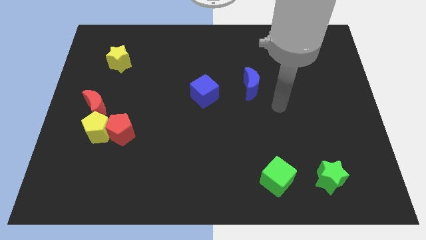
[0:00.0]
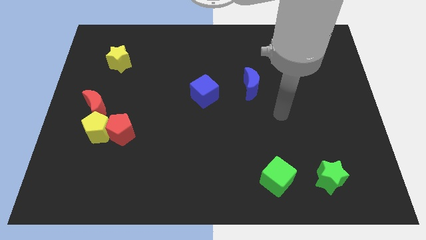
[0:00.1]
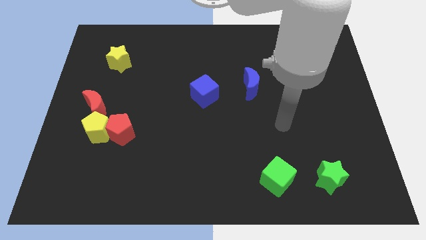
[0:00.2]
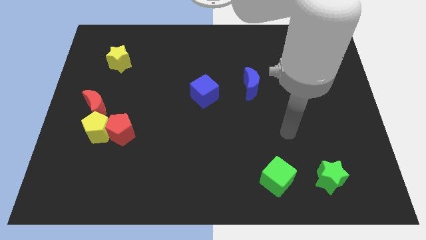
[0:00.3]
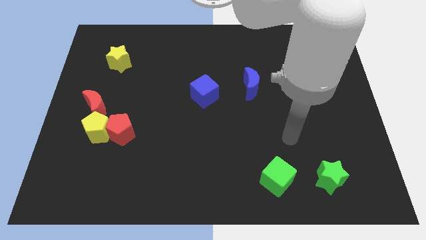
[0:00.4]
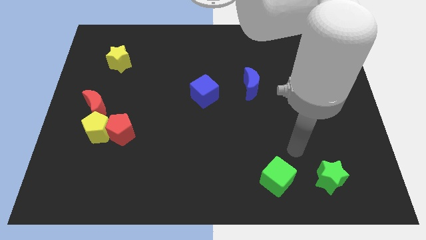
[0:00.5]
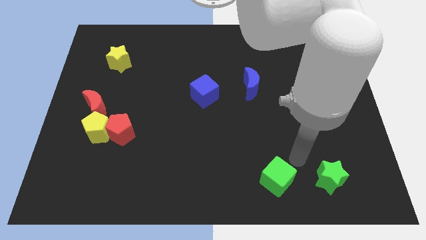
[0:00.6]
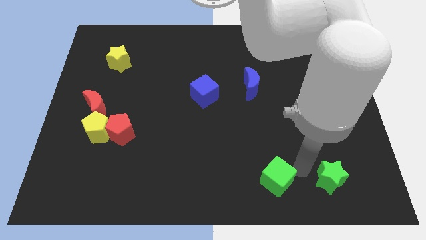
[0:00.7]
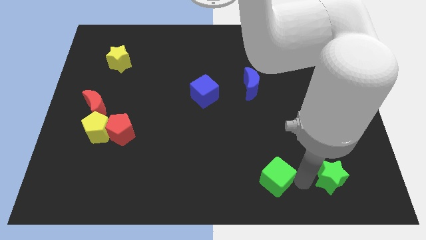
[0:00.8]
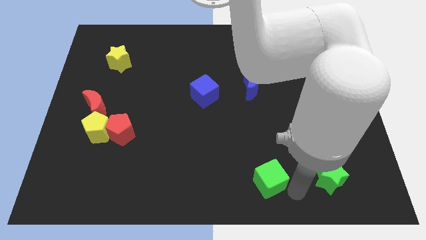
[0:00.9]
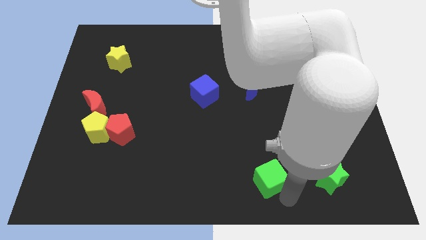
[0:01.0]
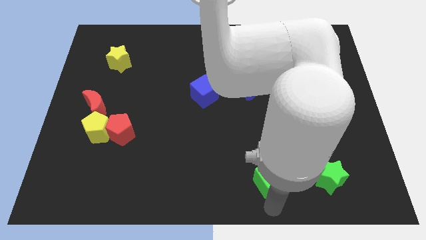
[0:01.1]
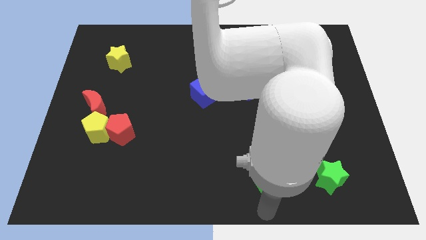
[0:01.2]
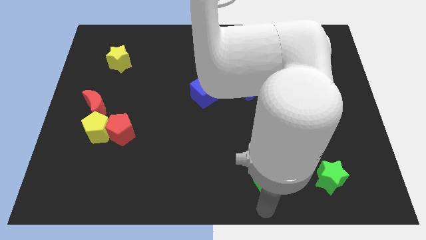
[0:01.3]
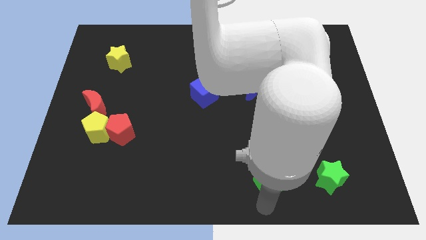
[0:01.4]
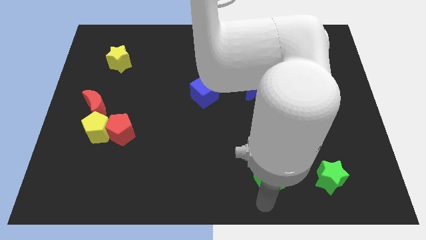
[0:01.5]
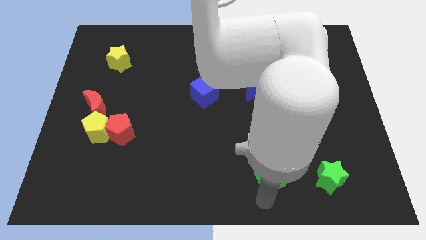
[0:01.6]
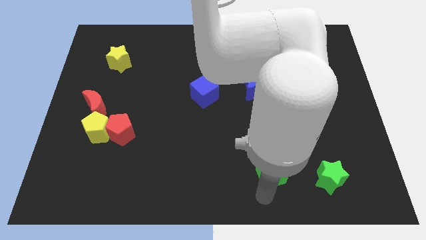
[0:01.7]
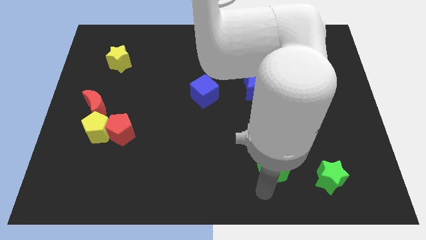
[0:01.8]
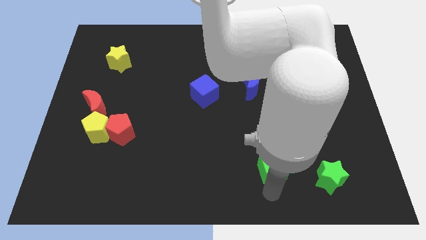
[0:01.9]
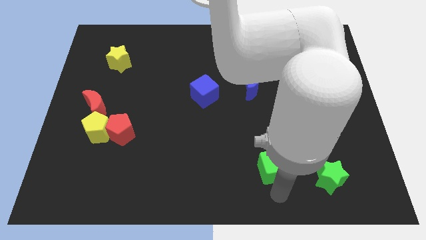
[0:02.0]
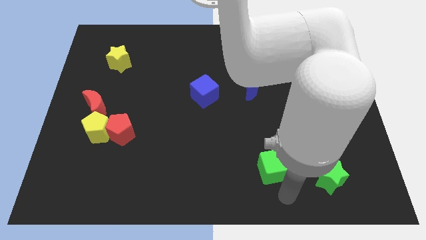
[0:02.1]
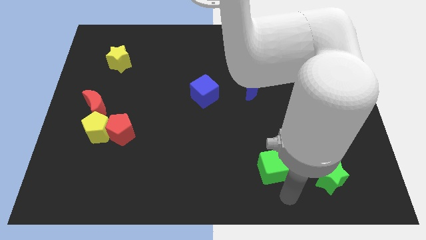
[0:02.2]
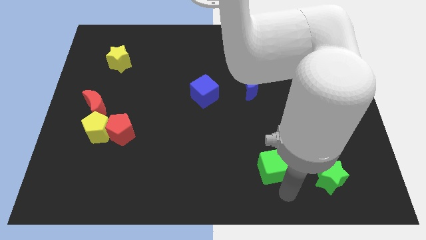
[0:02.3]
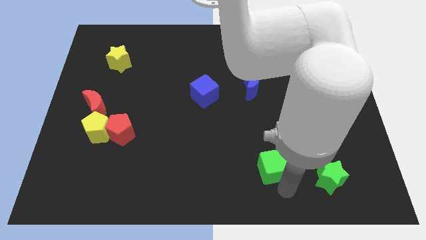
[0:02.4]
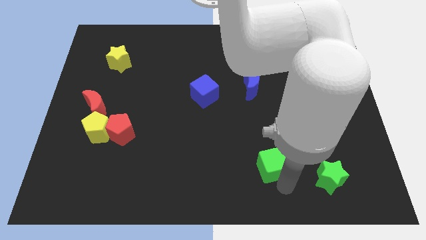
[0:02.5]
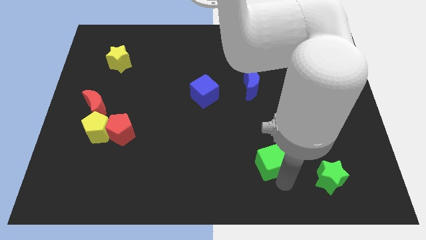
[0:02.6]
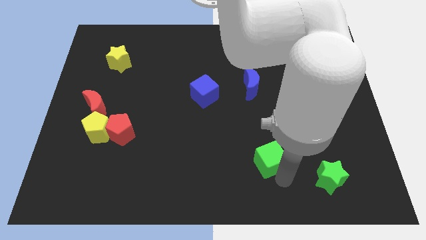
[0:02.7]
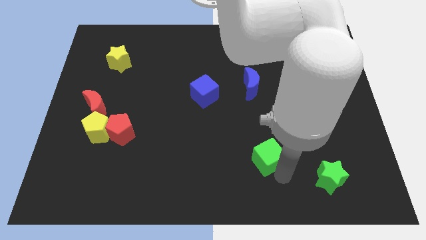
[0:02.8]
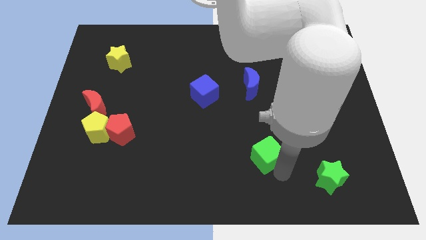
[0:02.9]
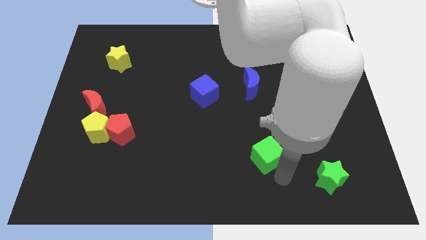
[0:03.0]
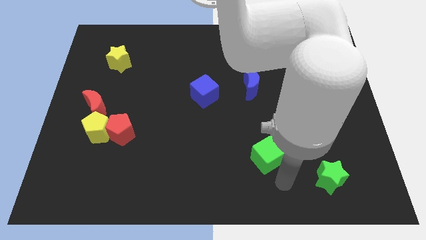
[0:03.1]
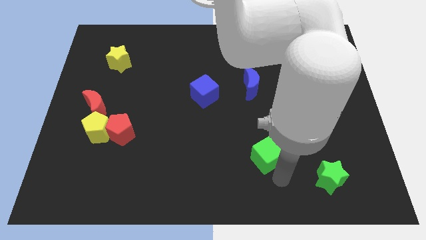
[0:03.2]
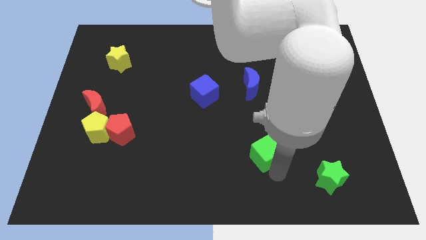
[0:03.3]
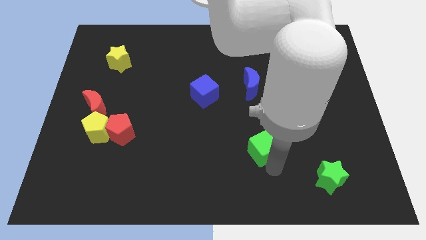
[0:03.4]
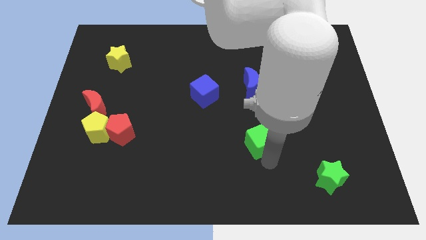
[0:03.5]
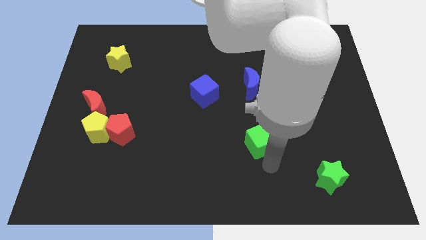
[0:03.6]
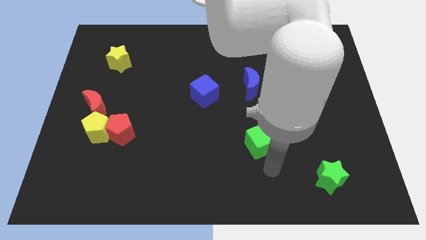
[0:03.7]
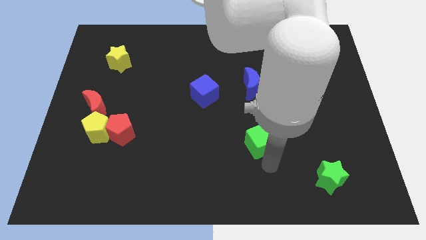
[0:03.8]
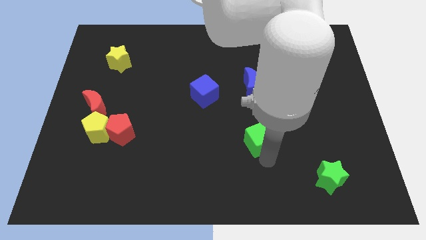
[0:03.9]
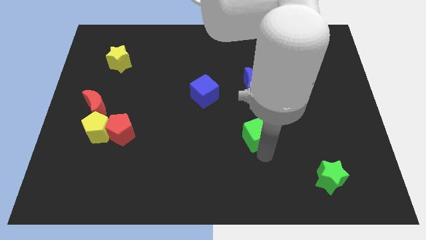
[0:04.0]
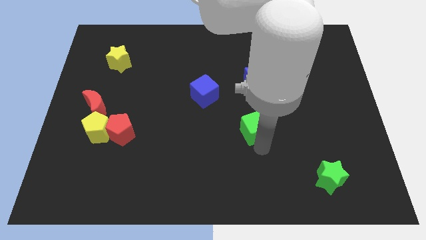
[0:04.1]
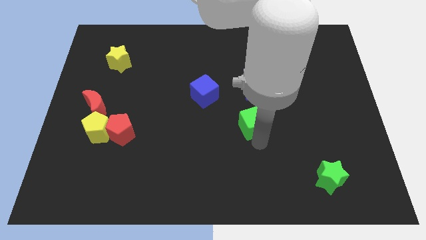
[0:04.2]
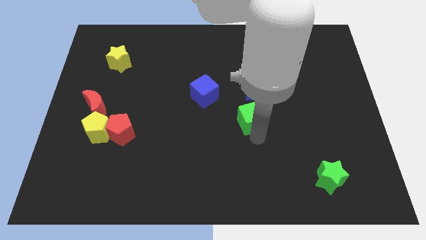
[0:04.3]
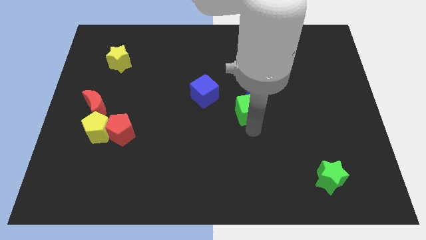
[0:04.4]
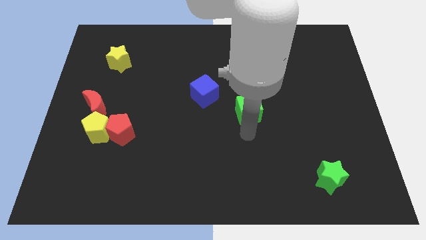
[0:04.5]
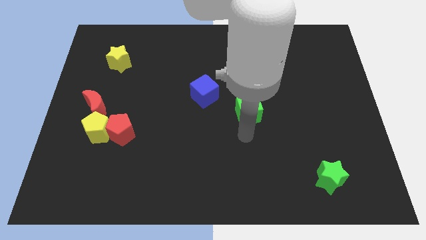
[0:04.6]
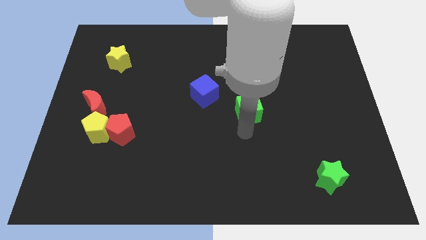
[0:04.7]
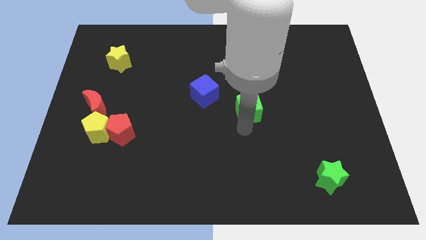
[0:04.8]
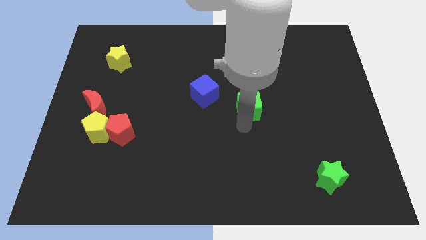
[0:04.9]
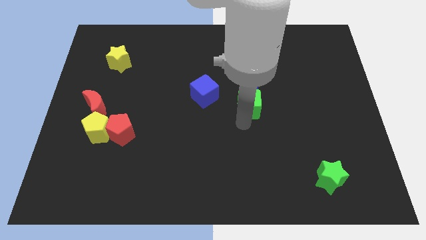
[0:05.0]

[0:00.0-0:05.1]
move the green cube next to the blue moon

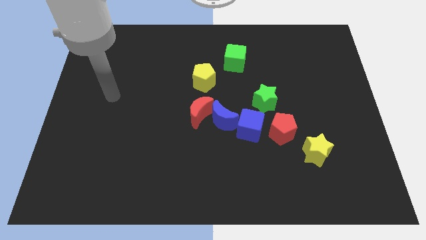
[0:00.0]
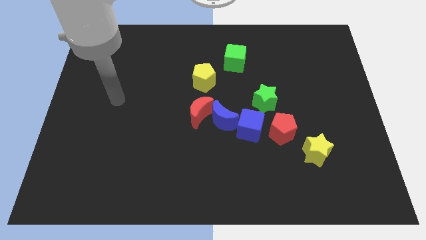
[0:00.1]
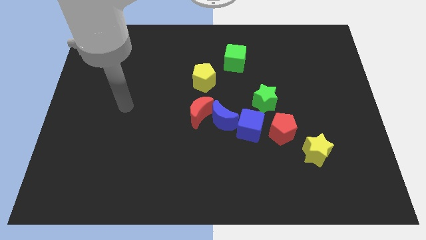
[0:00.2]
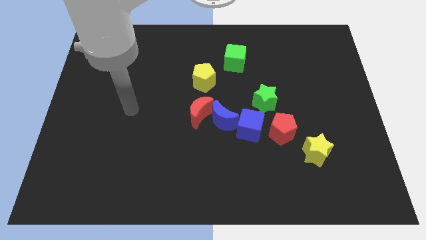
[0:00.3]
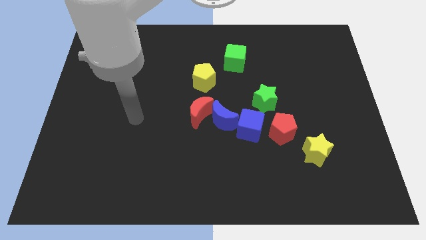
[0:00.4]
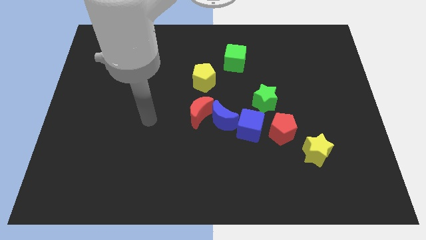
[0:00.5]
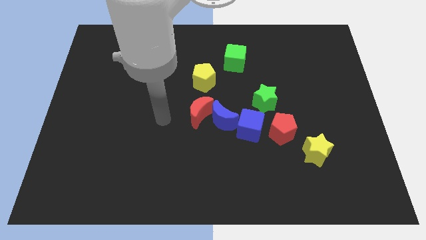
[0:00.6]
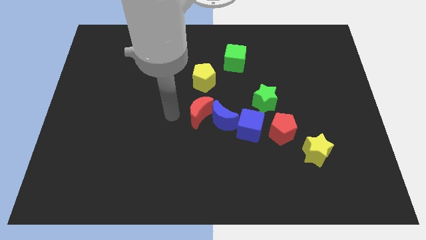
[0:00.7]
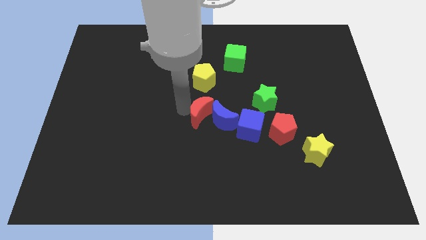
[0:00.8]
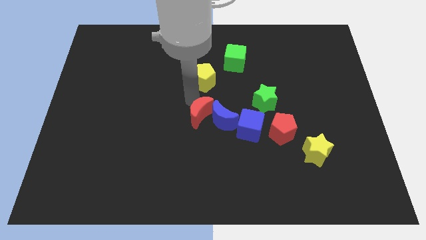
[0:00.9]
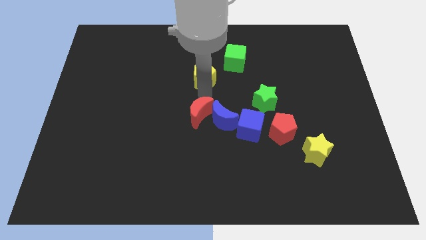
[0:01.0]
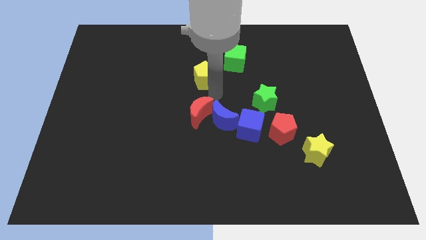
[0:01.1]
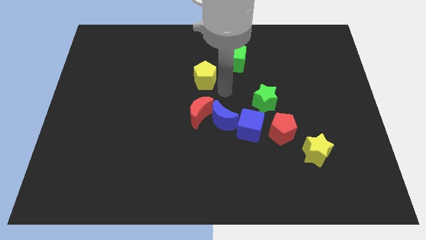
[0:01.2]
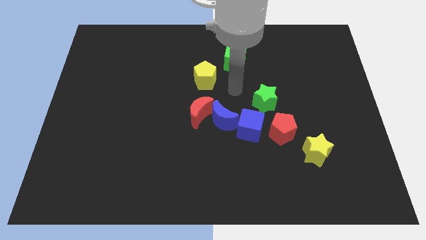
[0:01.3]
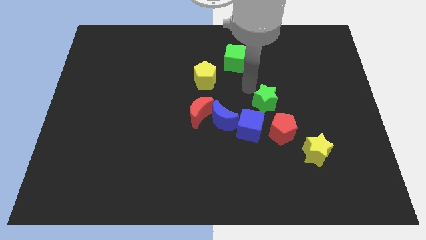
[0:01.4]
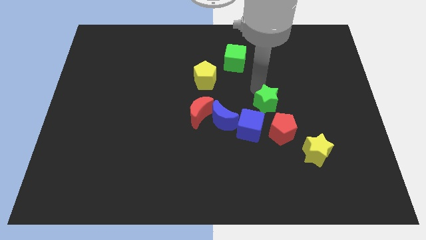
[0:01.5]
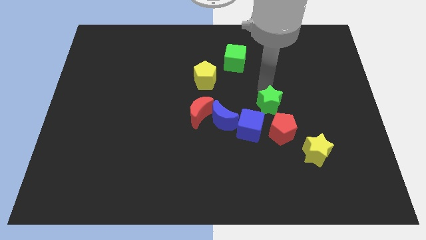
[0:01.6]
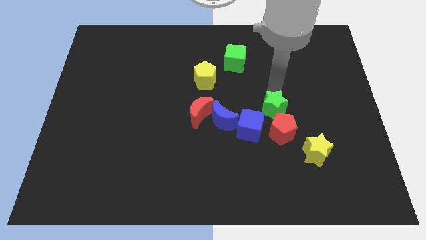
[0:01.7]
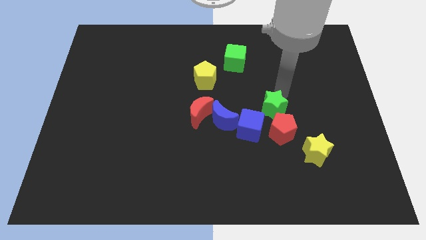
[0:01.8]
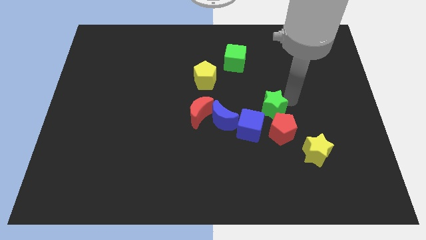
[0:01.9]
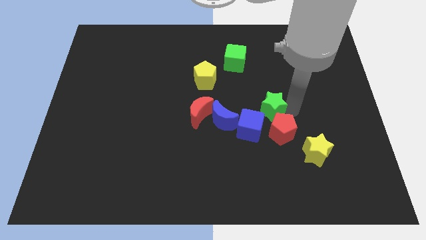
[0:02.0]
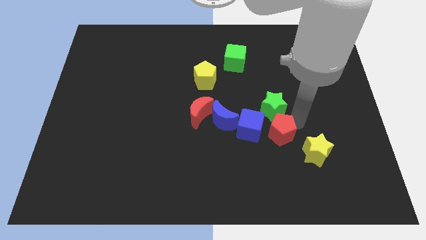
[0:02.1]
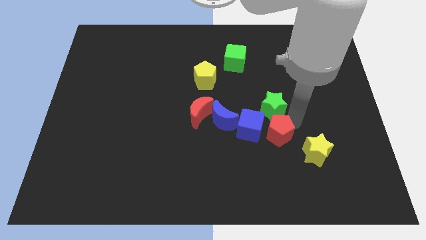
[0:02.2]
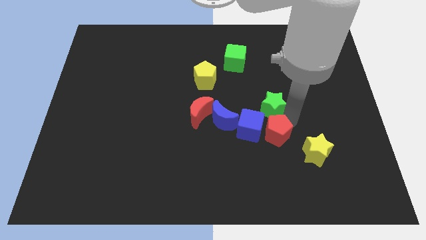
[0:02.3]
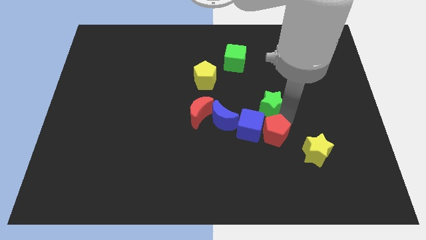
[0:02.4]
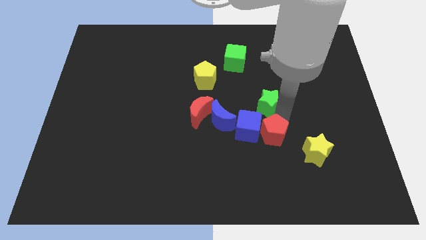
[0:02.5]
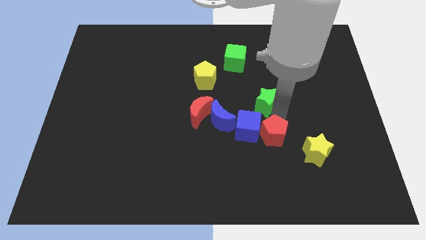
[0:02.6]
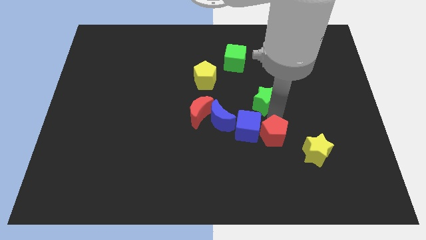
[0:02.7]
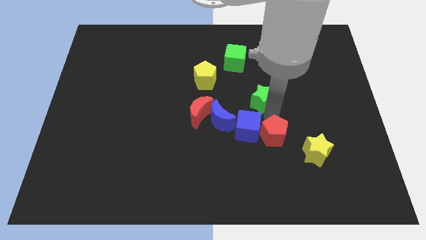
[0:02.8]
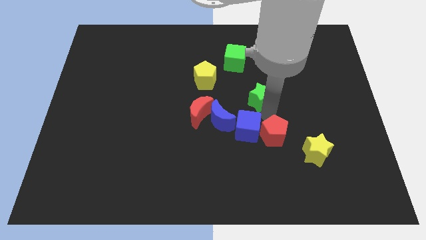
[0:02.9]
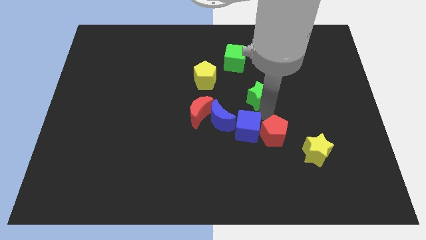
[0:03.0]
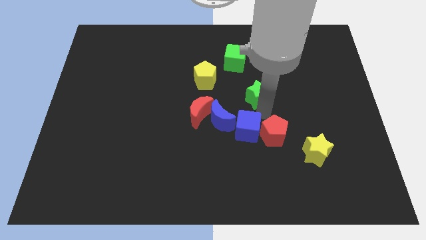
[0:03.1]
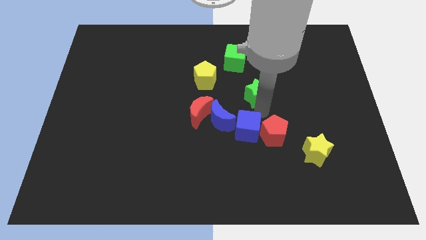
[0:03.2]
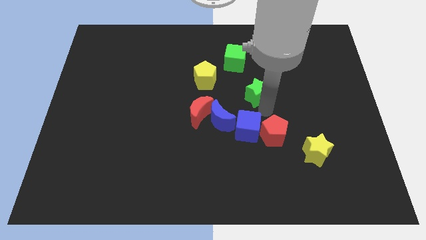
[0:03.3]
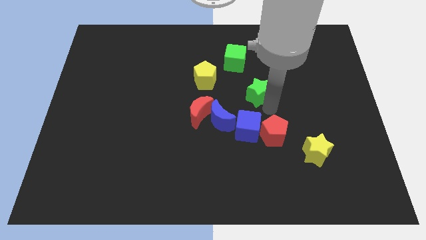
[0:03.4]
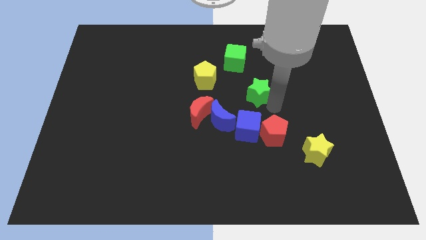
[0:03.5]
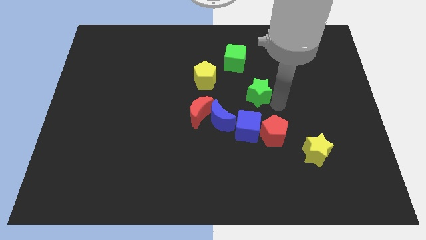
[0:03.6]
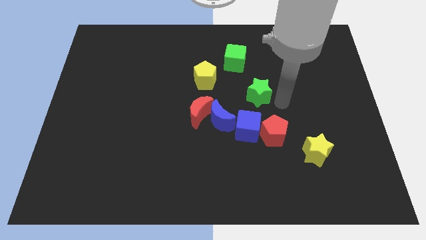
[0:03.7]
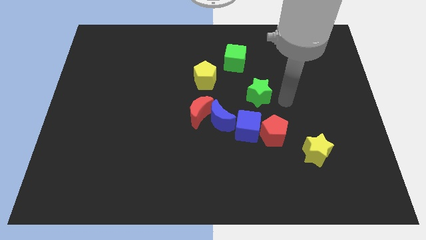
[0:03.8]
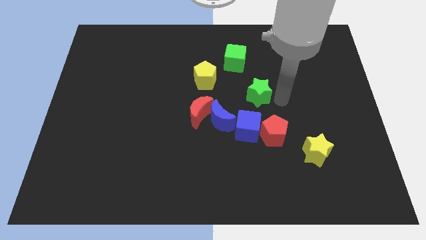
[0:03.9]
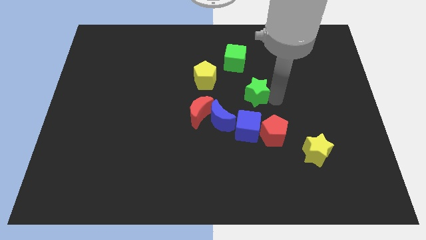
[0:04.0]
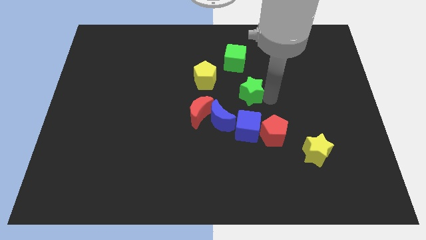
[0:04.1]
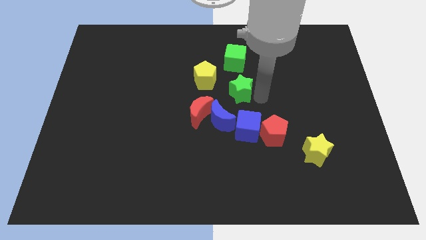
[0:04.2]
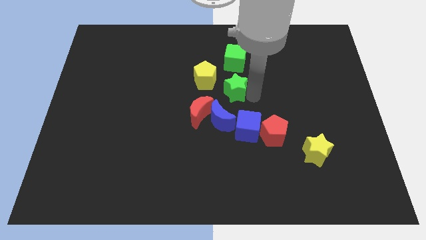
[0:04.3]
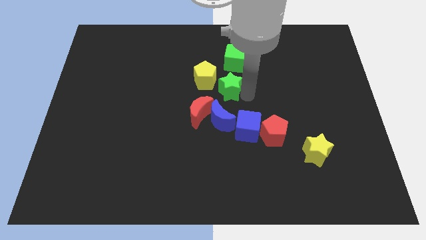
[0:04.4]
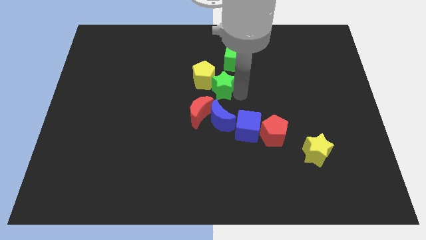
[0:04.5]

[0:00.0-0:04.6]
move the green star towards the yellow pentagon
